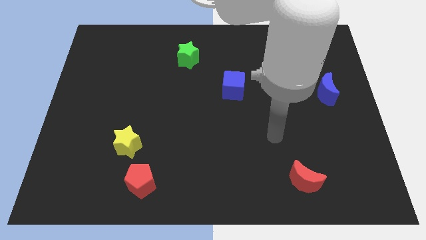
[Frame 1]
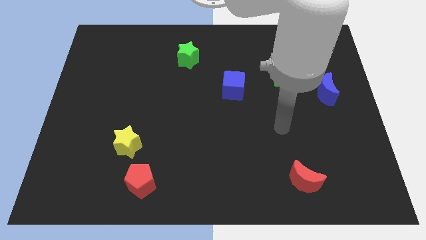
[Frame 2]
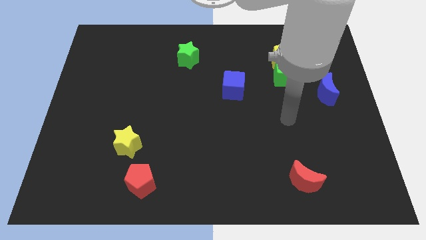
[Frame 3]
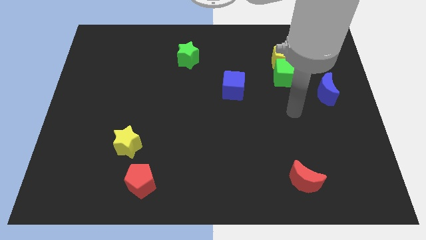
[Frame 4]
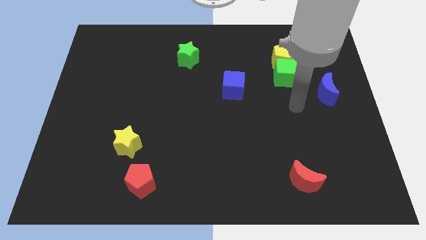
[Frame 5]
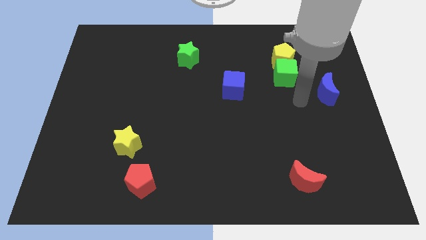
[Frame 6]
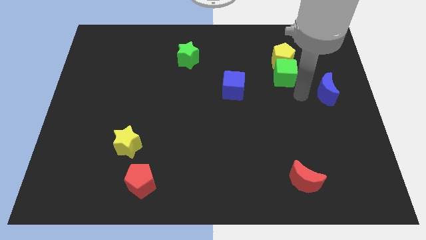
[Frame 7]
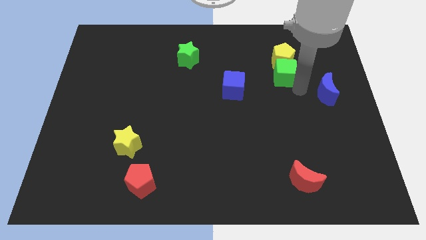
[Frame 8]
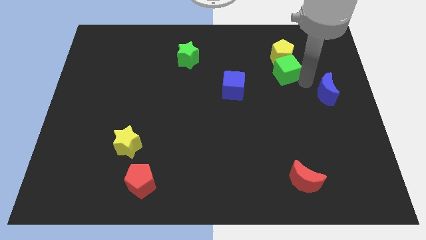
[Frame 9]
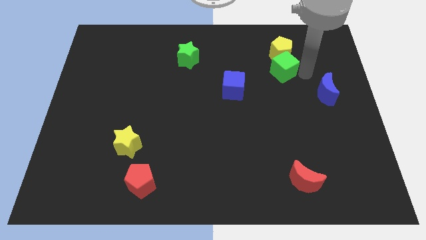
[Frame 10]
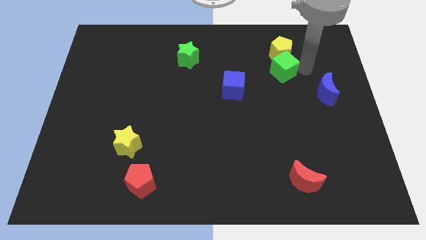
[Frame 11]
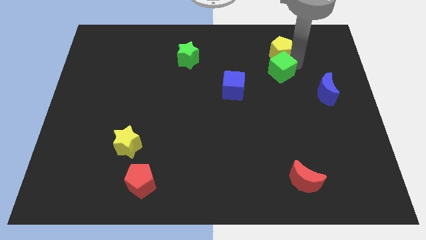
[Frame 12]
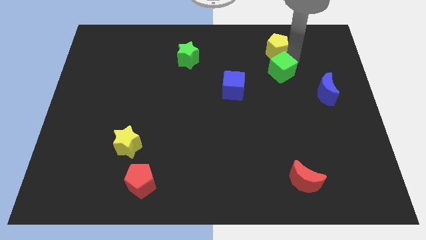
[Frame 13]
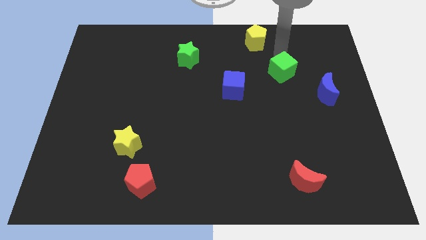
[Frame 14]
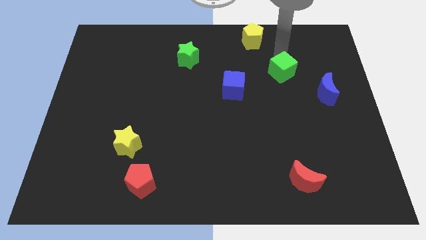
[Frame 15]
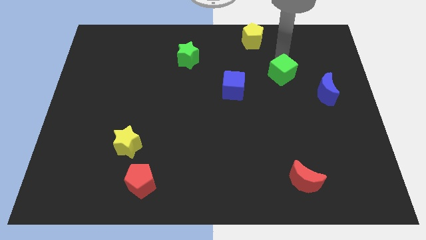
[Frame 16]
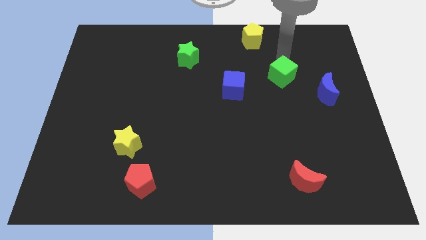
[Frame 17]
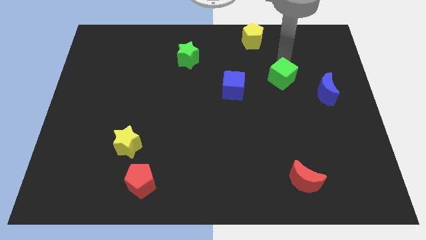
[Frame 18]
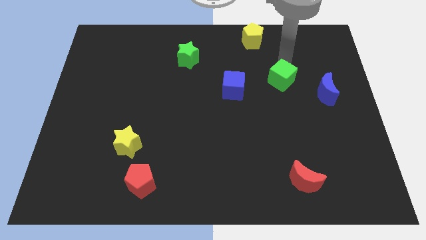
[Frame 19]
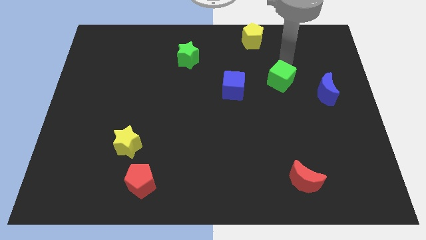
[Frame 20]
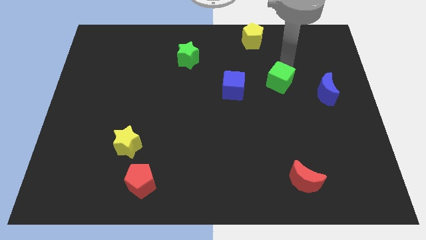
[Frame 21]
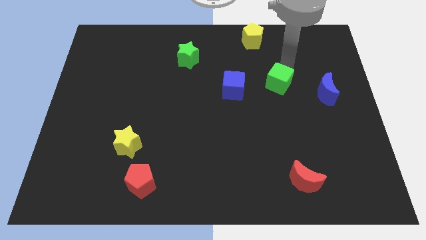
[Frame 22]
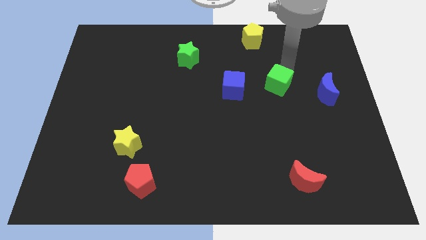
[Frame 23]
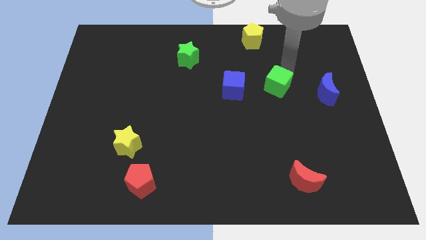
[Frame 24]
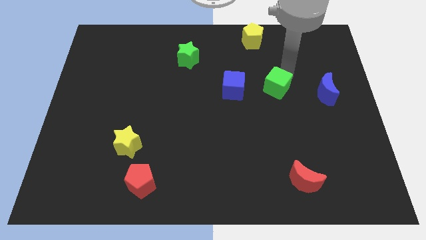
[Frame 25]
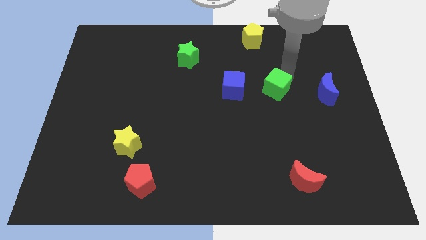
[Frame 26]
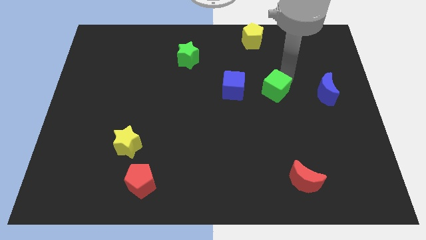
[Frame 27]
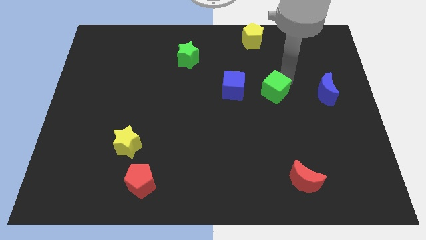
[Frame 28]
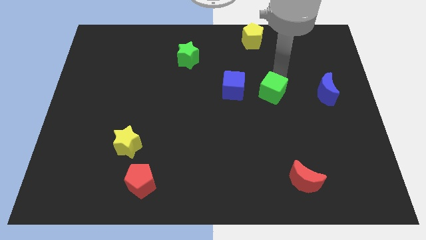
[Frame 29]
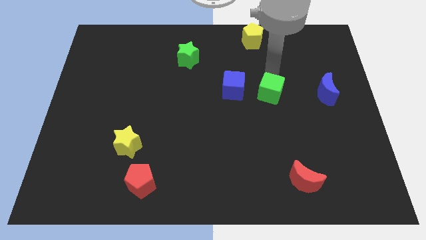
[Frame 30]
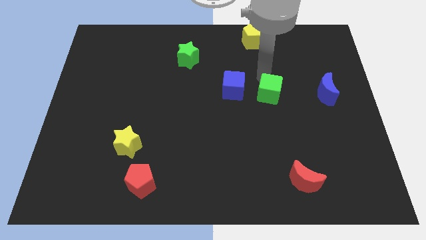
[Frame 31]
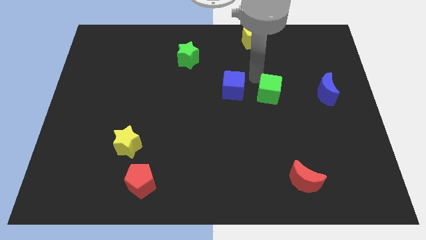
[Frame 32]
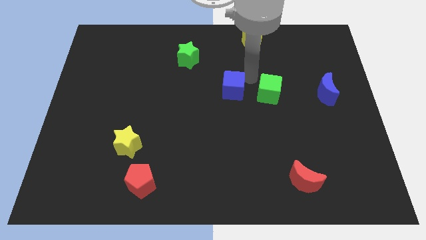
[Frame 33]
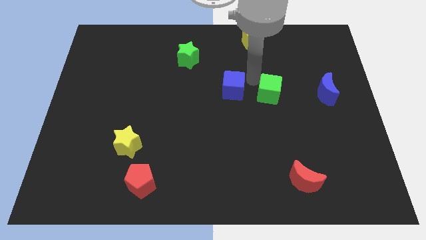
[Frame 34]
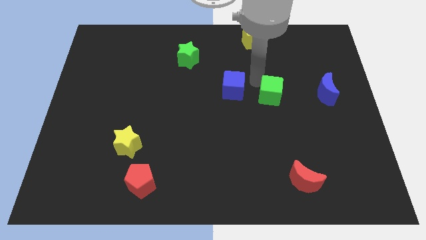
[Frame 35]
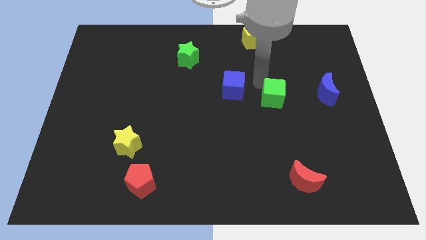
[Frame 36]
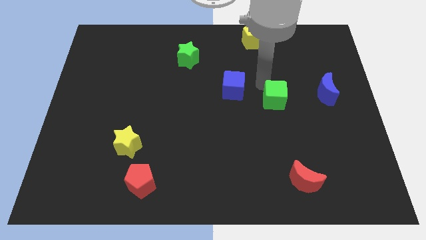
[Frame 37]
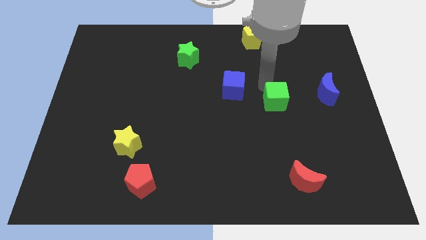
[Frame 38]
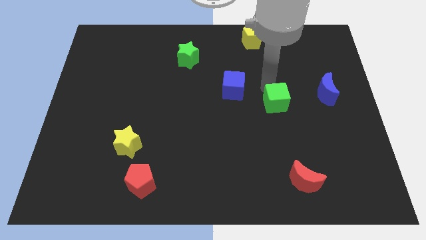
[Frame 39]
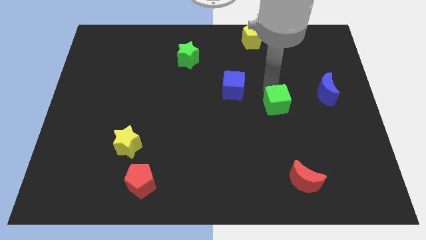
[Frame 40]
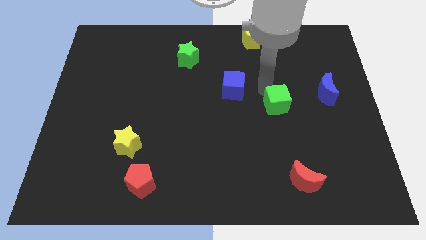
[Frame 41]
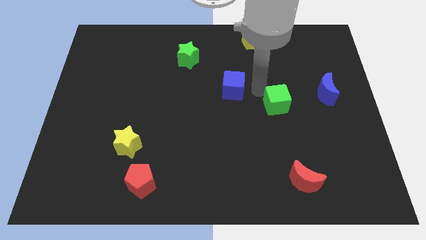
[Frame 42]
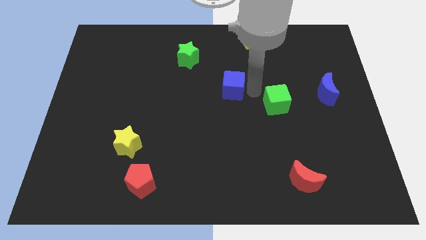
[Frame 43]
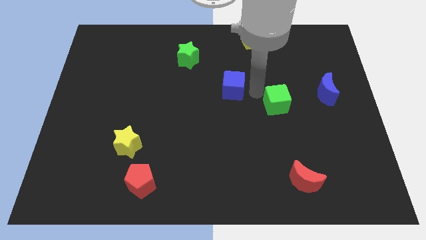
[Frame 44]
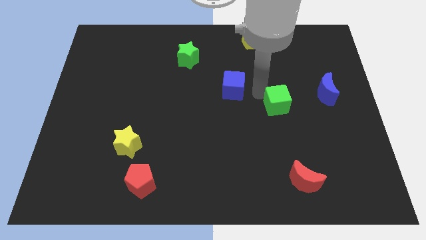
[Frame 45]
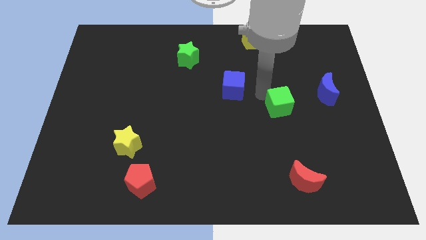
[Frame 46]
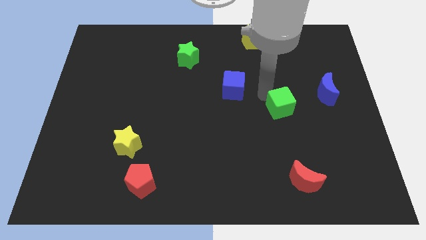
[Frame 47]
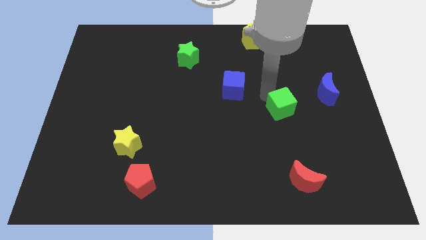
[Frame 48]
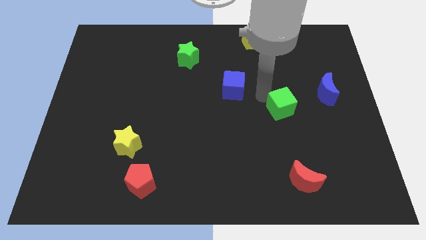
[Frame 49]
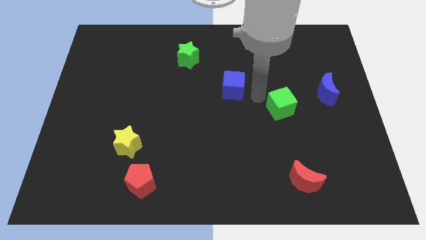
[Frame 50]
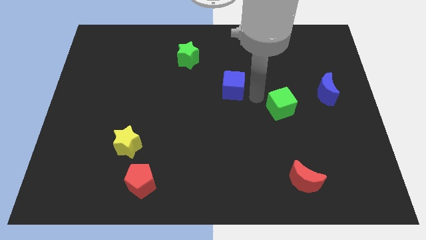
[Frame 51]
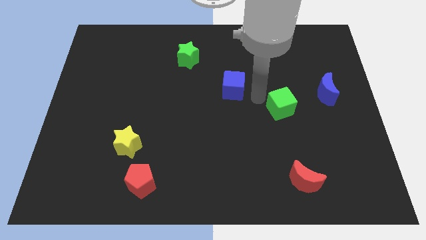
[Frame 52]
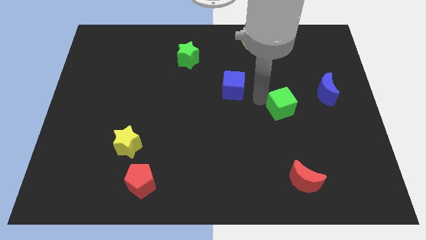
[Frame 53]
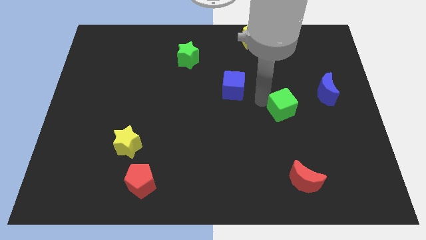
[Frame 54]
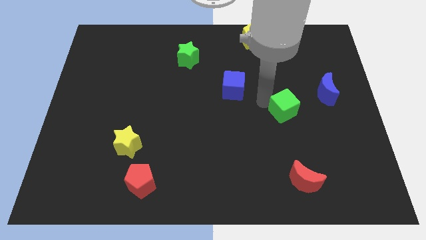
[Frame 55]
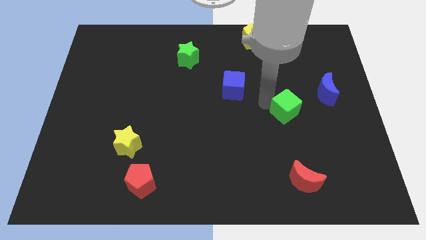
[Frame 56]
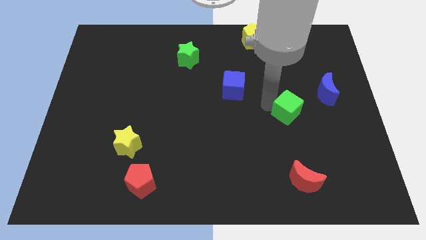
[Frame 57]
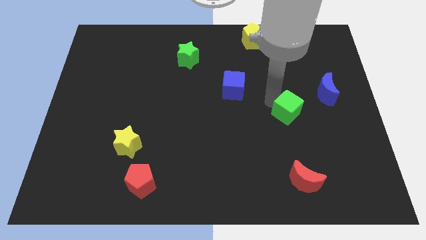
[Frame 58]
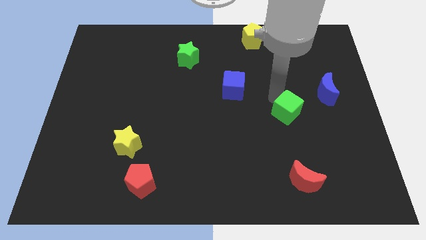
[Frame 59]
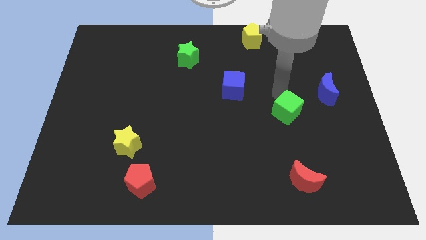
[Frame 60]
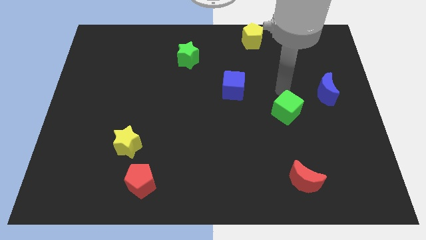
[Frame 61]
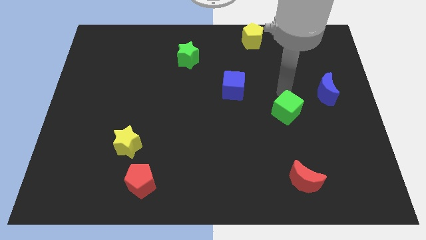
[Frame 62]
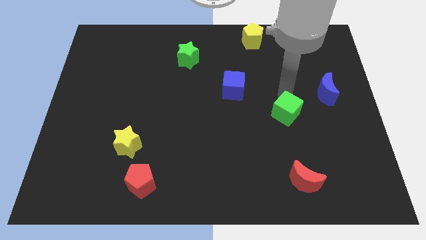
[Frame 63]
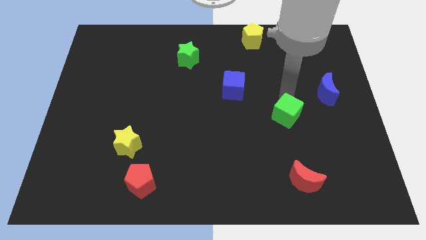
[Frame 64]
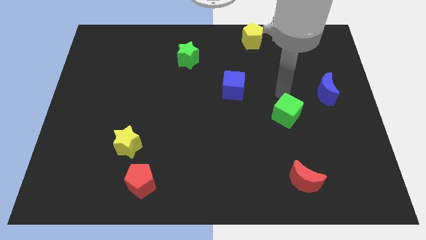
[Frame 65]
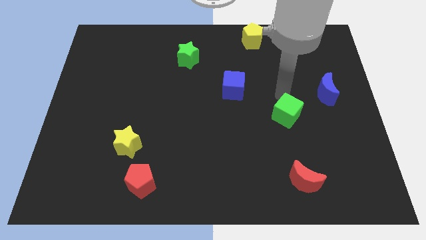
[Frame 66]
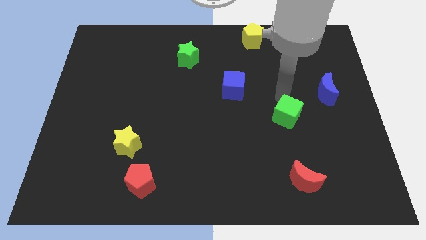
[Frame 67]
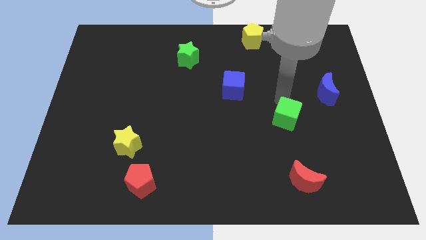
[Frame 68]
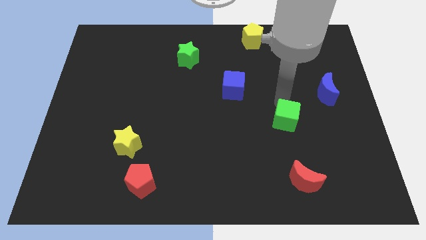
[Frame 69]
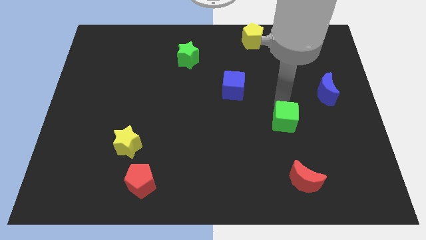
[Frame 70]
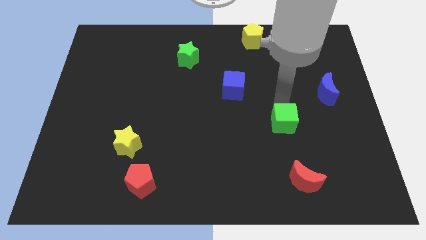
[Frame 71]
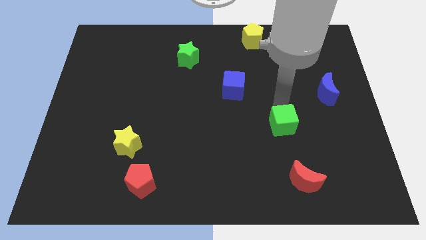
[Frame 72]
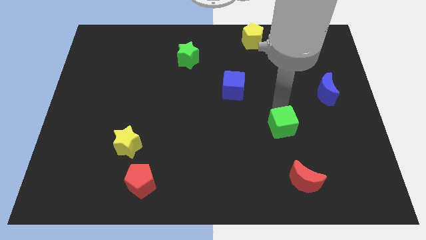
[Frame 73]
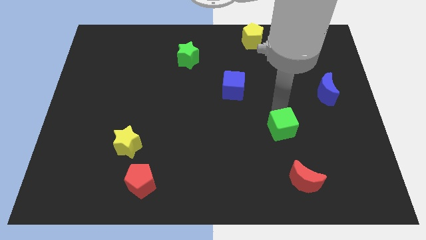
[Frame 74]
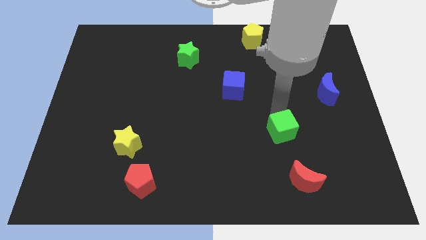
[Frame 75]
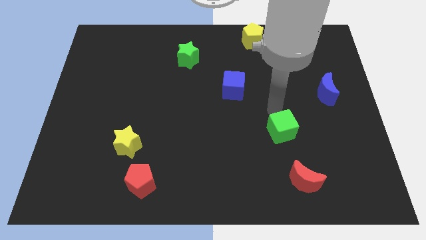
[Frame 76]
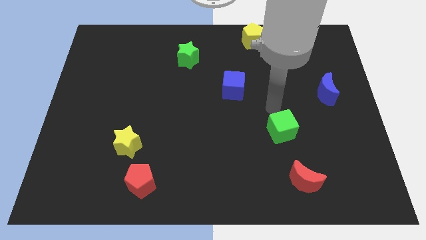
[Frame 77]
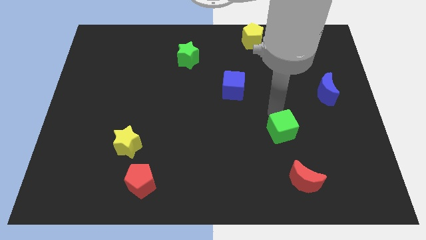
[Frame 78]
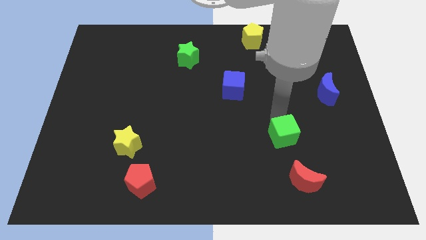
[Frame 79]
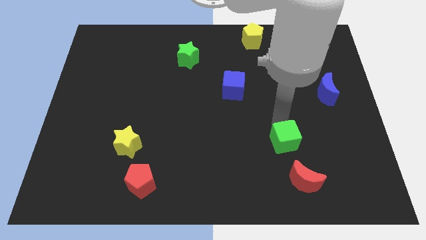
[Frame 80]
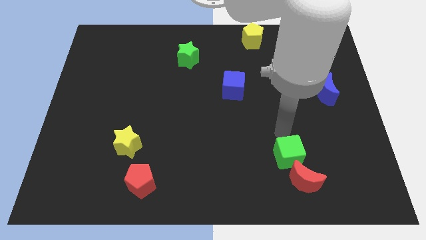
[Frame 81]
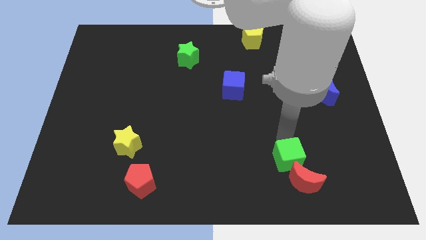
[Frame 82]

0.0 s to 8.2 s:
push the green cube close to the red moon
